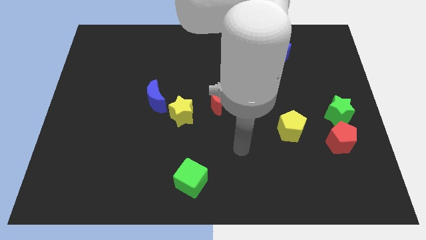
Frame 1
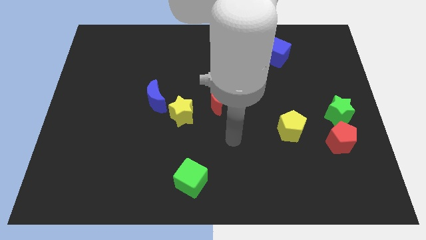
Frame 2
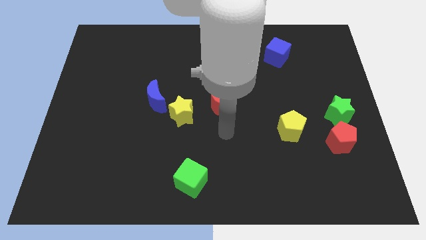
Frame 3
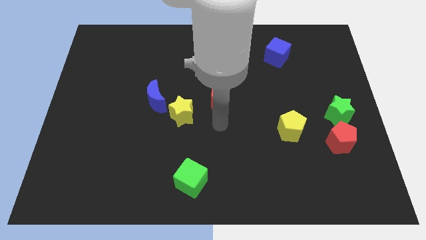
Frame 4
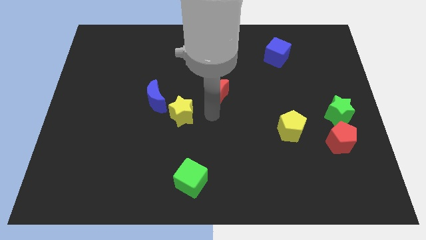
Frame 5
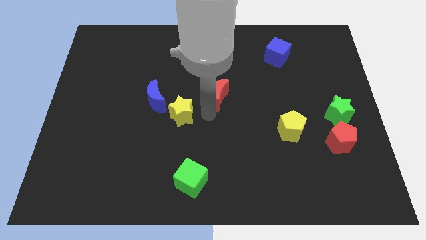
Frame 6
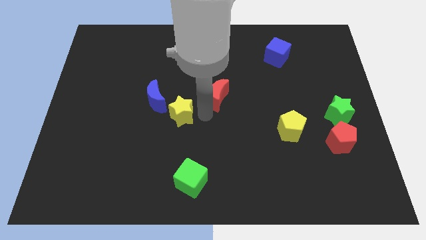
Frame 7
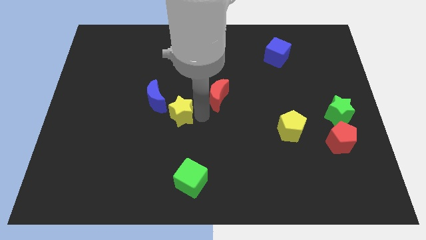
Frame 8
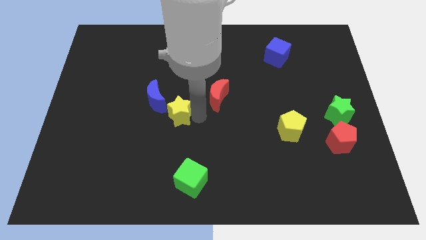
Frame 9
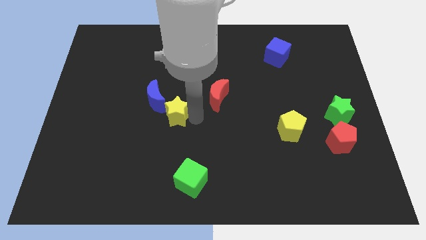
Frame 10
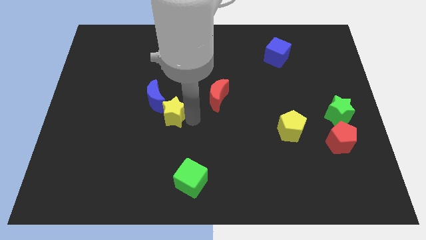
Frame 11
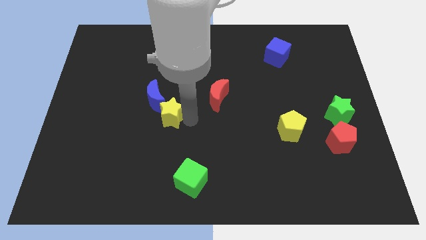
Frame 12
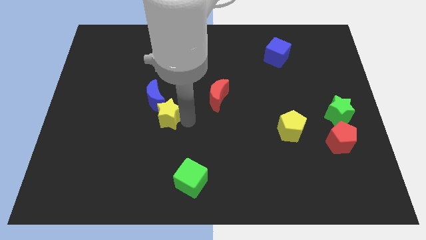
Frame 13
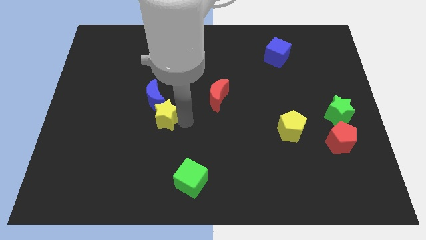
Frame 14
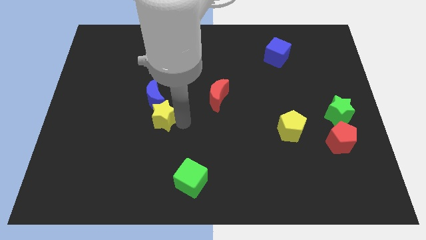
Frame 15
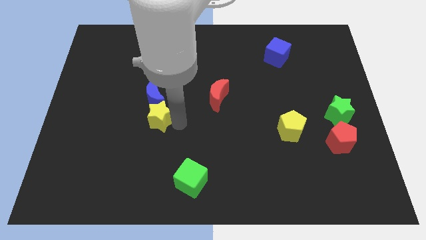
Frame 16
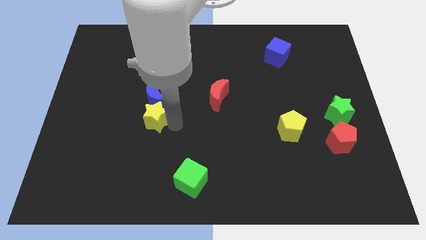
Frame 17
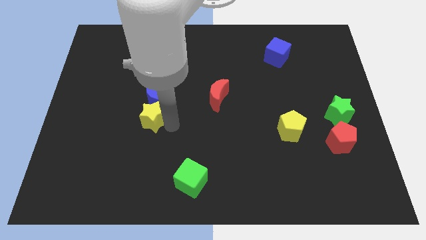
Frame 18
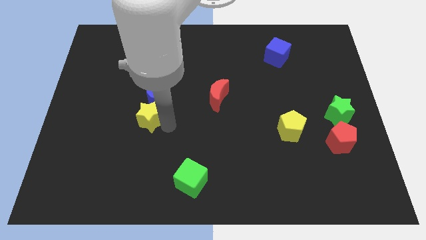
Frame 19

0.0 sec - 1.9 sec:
slightly move the yellow star to the left

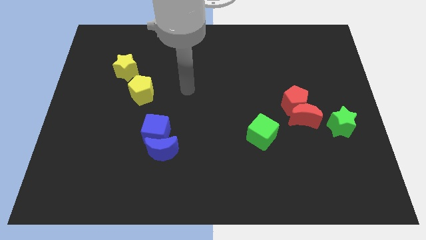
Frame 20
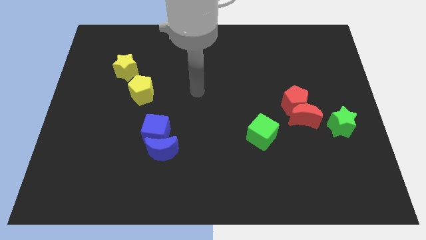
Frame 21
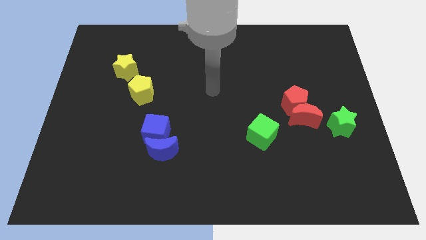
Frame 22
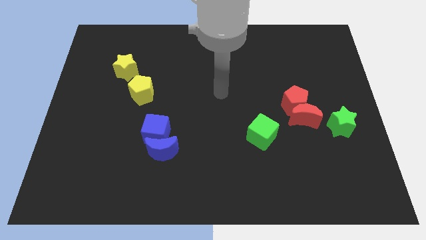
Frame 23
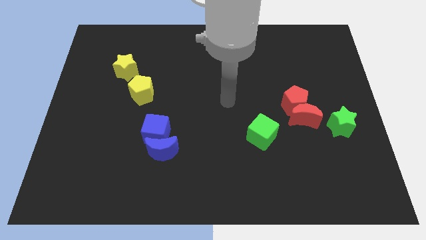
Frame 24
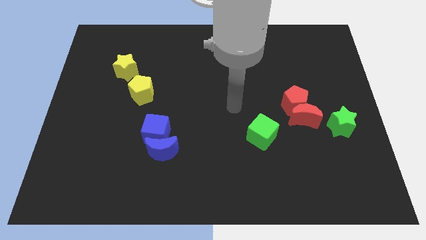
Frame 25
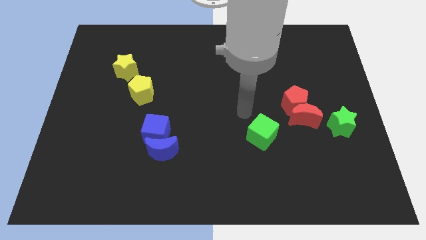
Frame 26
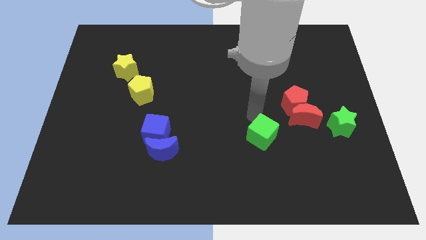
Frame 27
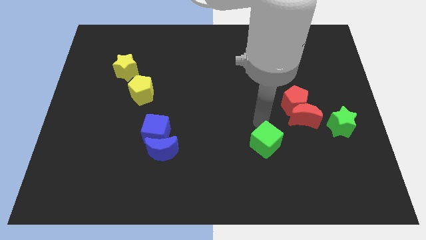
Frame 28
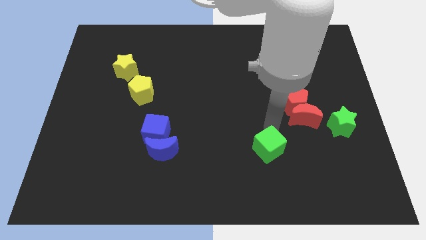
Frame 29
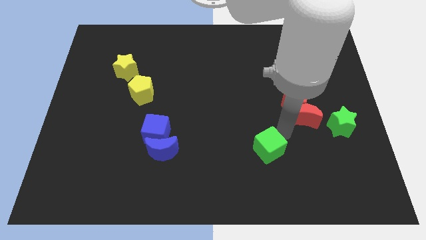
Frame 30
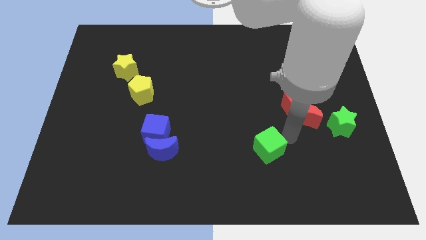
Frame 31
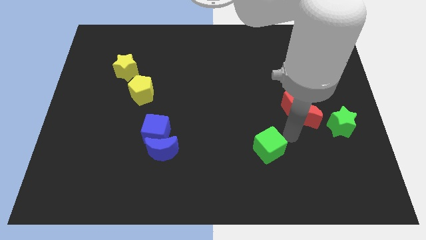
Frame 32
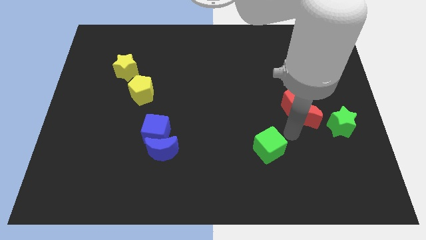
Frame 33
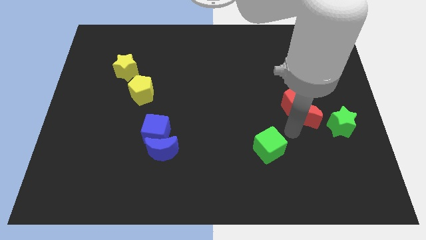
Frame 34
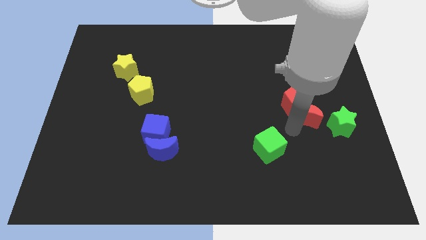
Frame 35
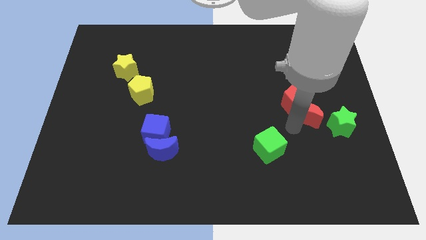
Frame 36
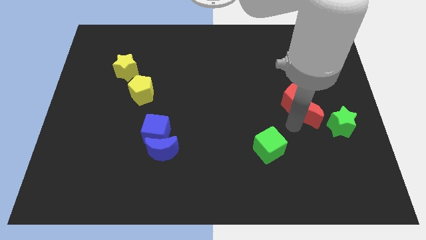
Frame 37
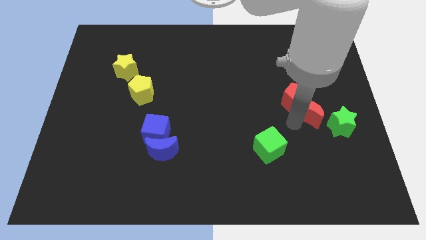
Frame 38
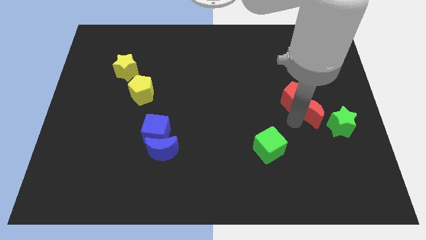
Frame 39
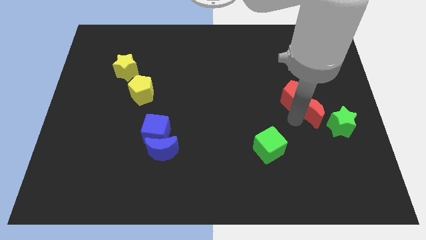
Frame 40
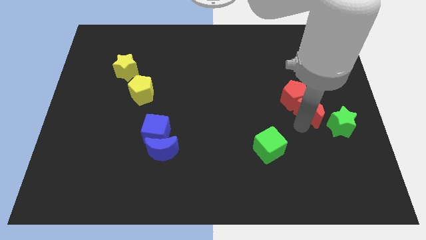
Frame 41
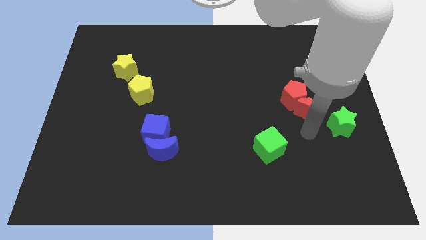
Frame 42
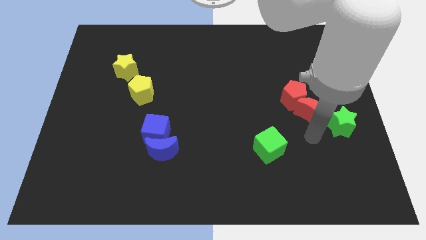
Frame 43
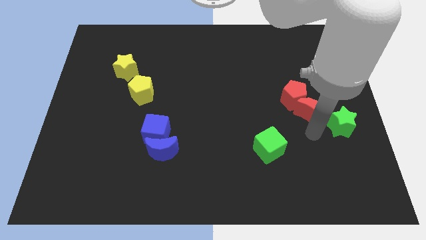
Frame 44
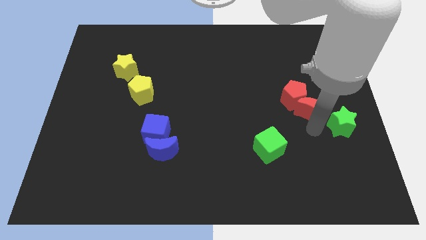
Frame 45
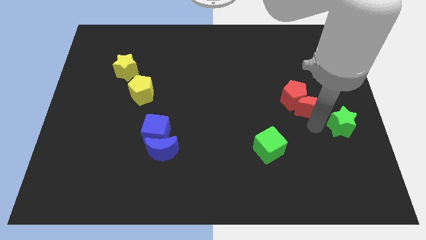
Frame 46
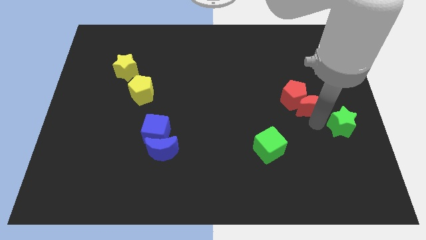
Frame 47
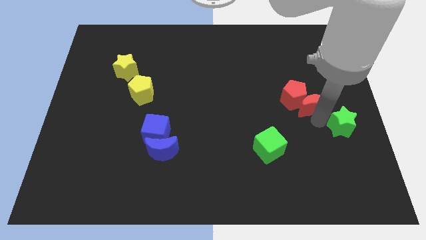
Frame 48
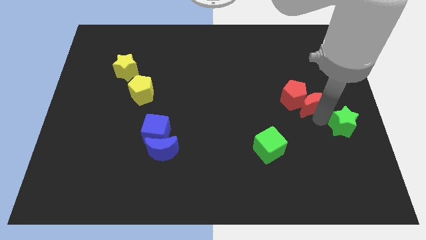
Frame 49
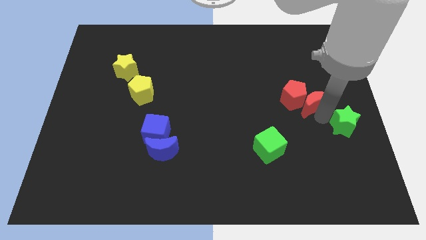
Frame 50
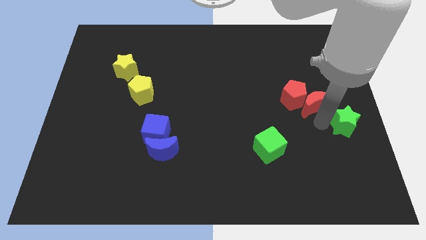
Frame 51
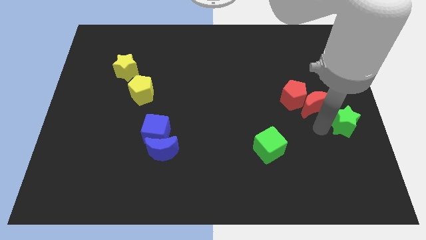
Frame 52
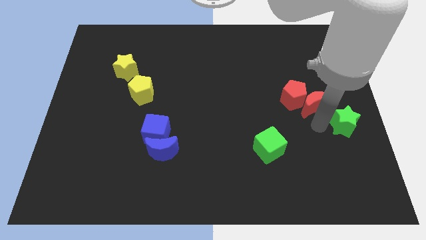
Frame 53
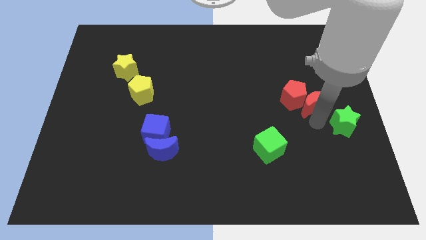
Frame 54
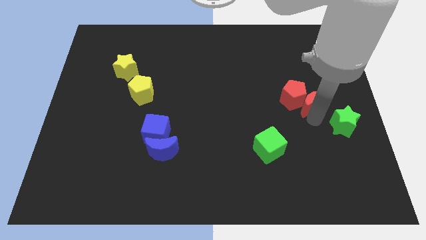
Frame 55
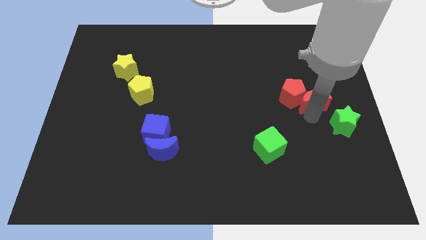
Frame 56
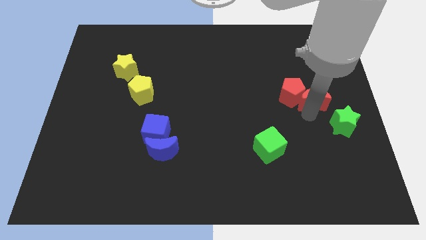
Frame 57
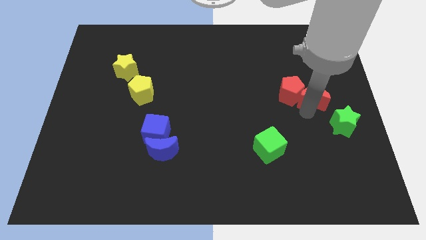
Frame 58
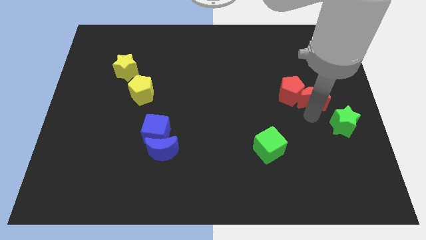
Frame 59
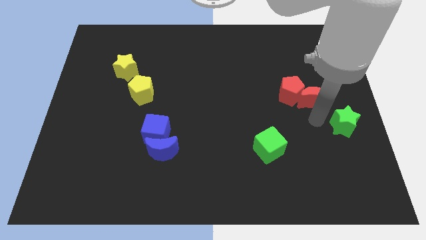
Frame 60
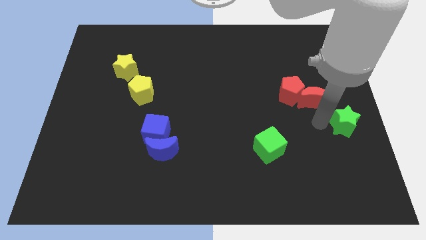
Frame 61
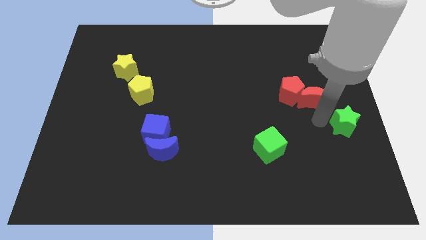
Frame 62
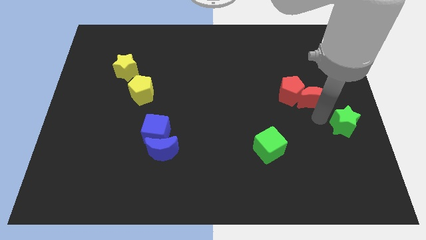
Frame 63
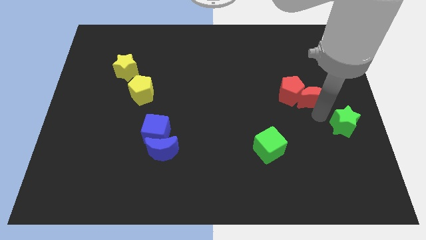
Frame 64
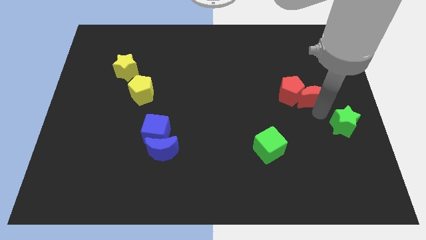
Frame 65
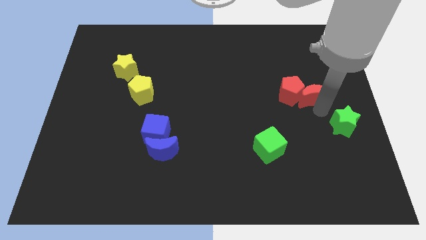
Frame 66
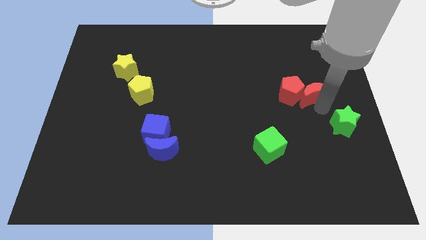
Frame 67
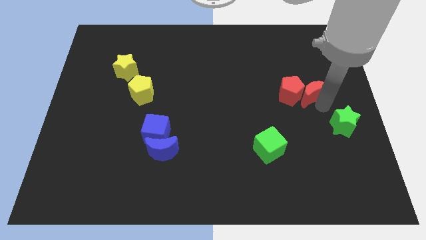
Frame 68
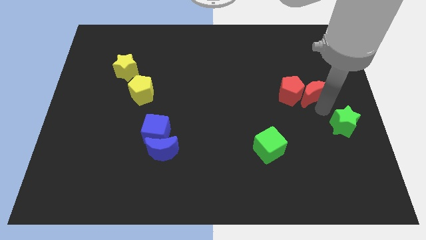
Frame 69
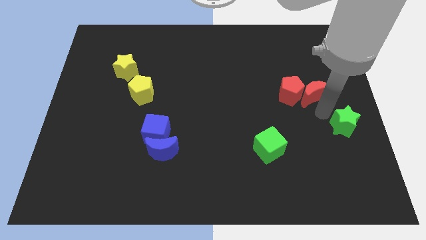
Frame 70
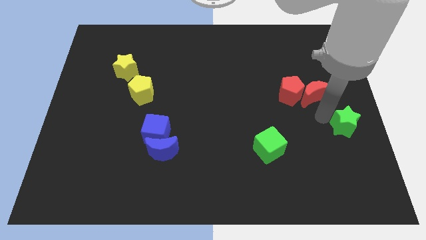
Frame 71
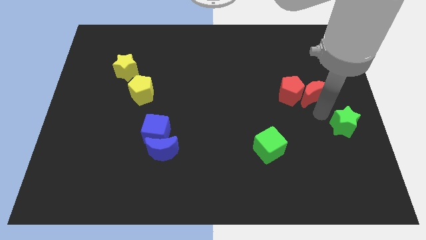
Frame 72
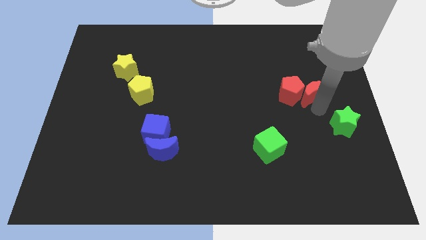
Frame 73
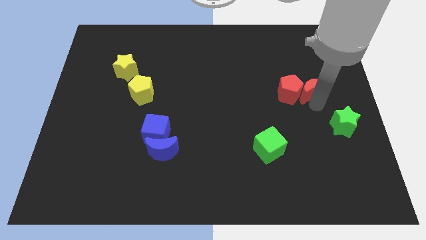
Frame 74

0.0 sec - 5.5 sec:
slightly move the red moon up

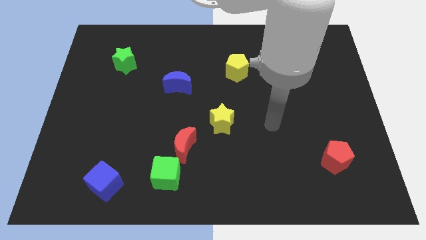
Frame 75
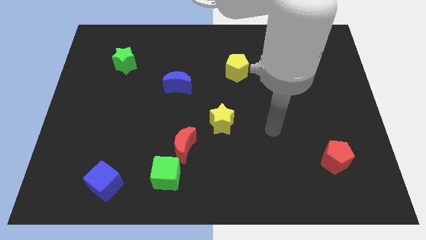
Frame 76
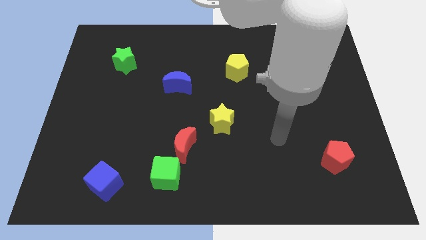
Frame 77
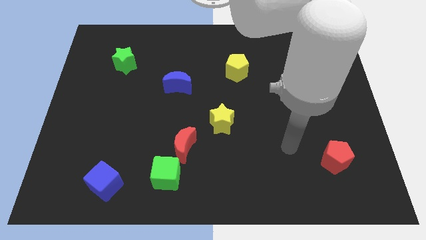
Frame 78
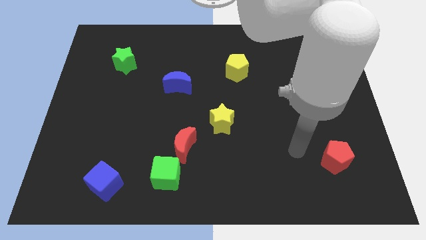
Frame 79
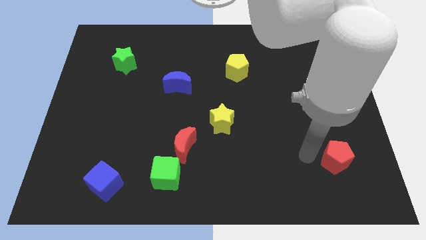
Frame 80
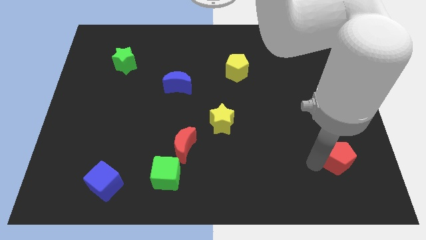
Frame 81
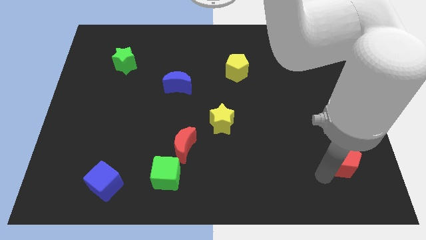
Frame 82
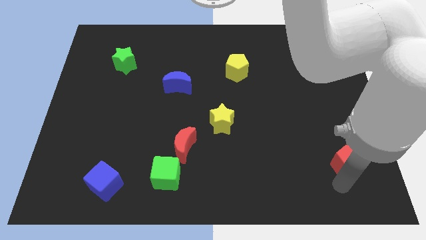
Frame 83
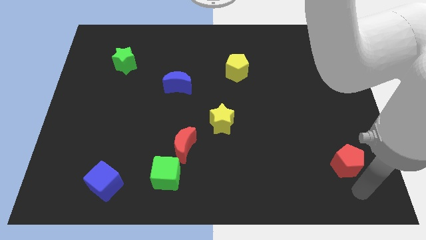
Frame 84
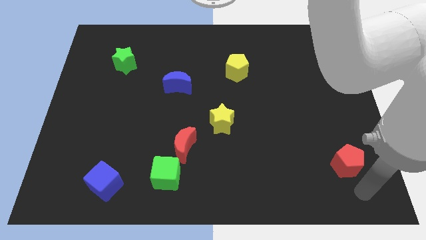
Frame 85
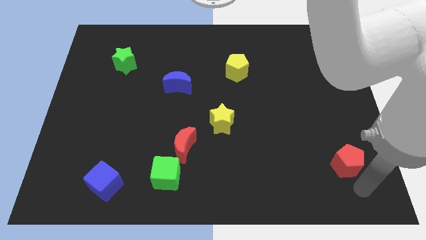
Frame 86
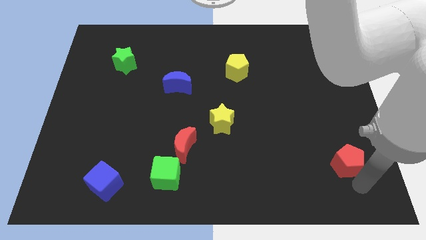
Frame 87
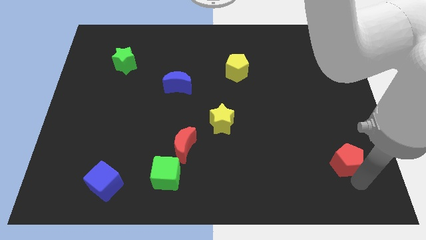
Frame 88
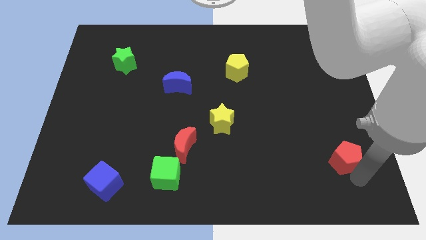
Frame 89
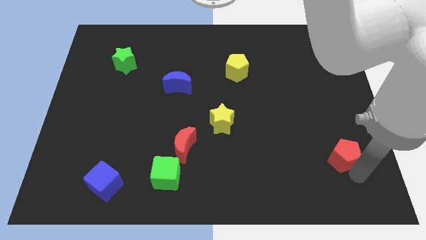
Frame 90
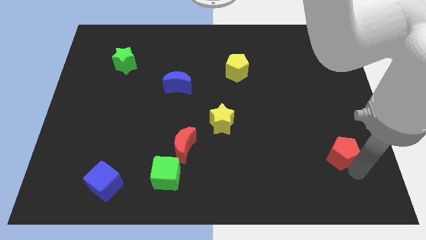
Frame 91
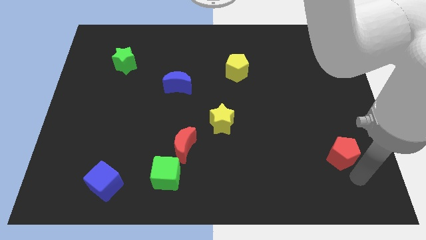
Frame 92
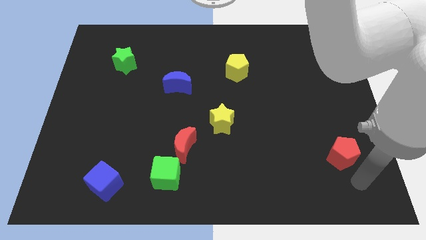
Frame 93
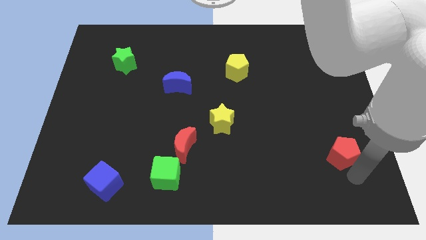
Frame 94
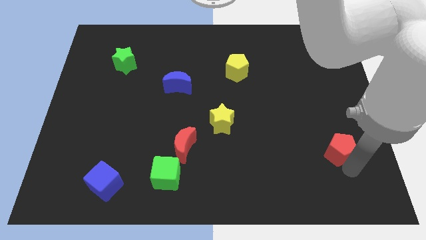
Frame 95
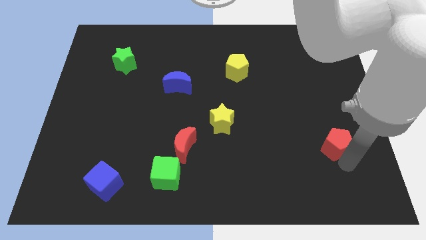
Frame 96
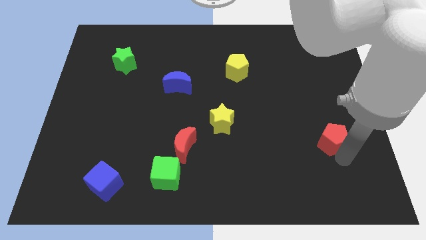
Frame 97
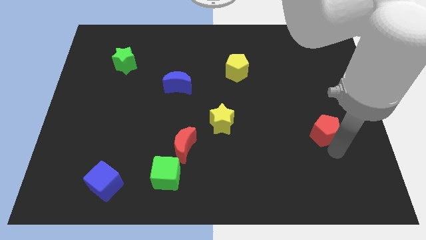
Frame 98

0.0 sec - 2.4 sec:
push the red pentagon slightly up
